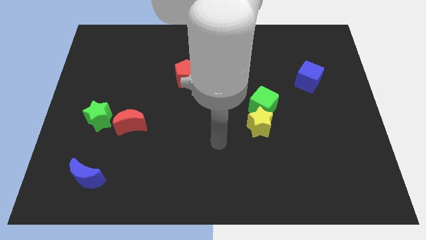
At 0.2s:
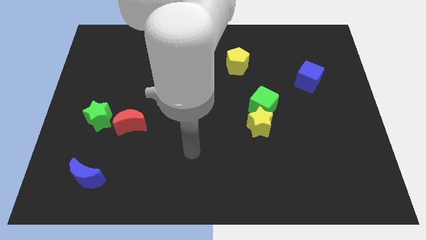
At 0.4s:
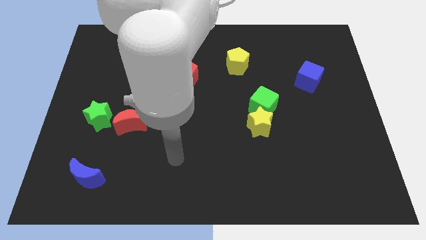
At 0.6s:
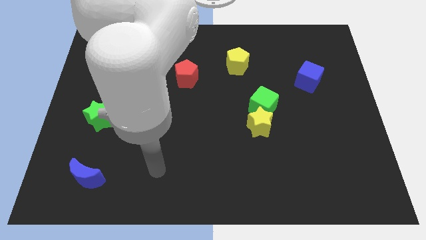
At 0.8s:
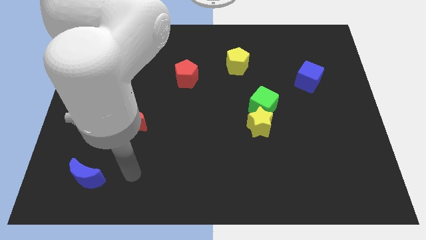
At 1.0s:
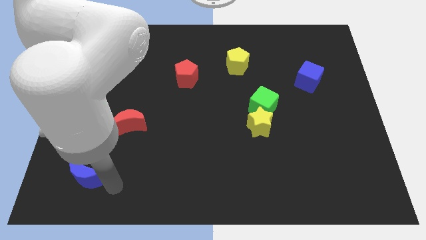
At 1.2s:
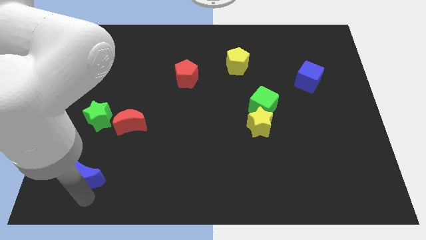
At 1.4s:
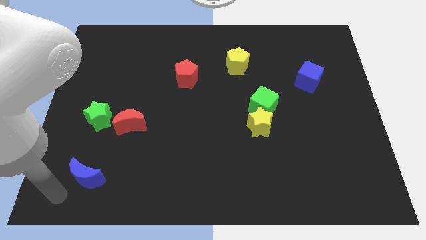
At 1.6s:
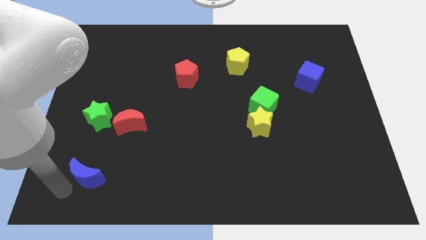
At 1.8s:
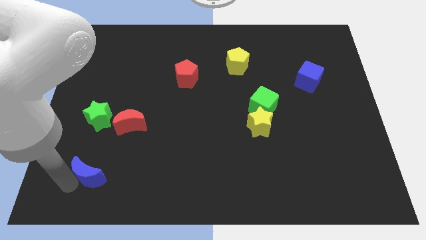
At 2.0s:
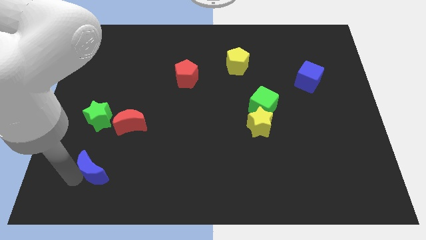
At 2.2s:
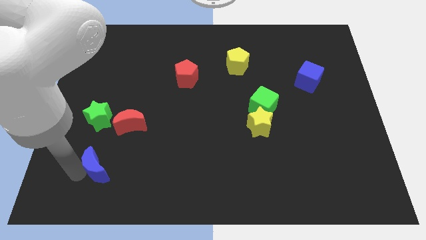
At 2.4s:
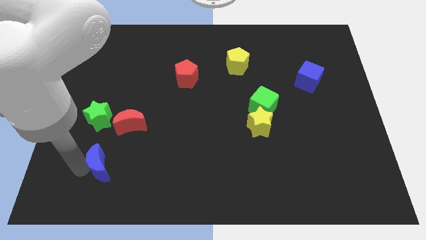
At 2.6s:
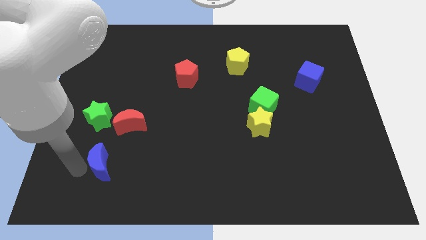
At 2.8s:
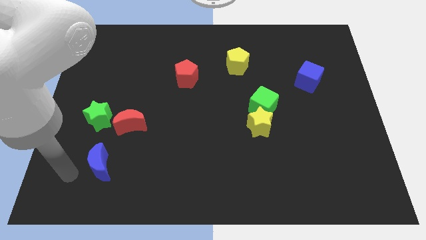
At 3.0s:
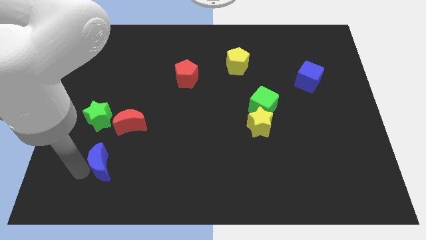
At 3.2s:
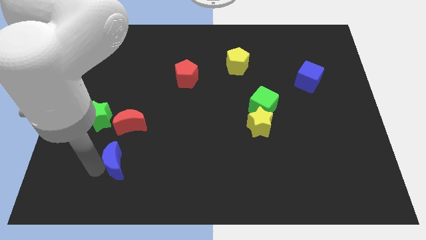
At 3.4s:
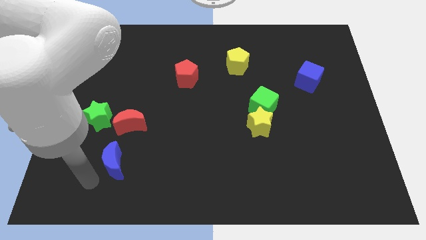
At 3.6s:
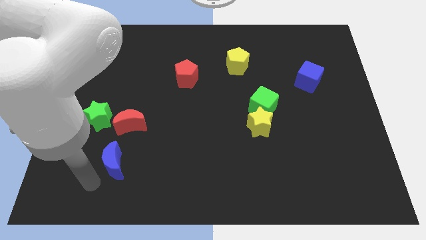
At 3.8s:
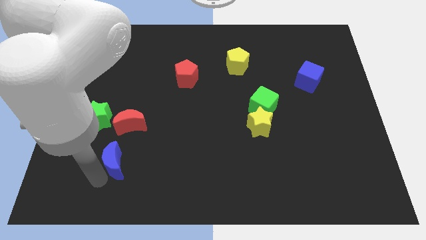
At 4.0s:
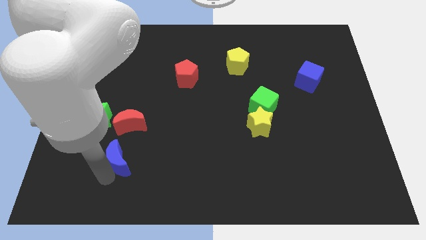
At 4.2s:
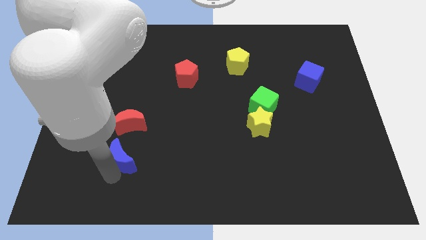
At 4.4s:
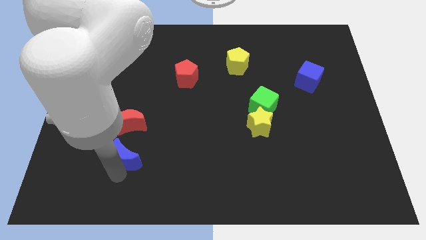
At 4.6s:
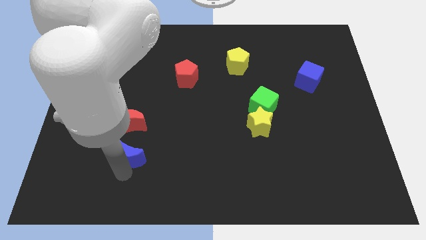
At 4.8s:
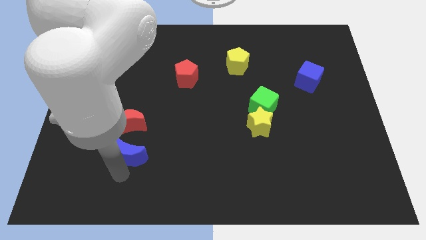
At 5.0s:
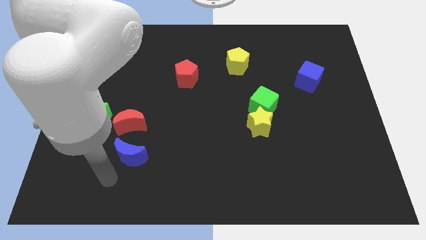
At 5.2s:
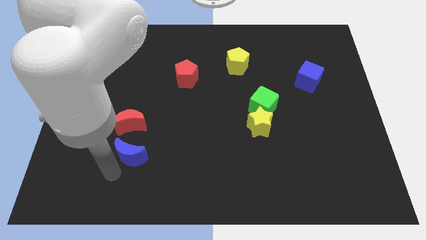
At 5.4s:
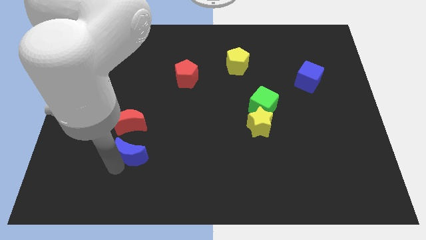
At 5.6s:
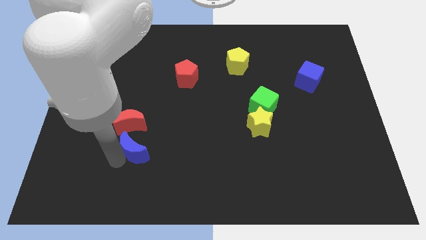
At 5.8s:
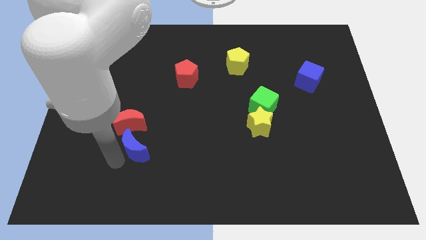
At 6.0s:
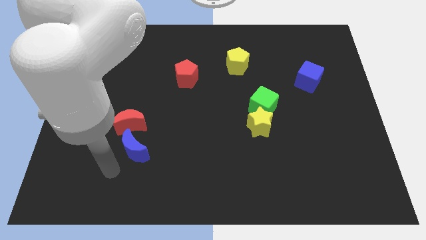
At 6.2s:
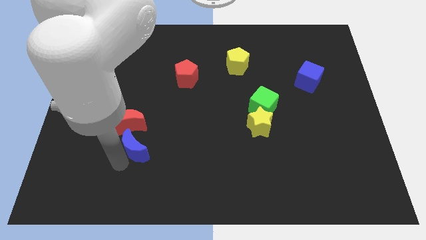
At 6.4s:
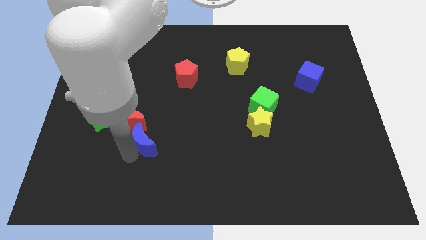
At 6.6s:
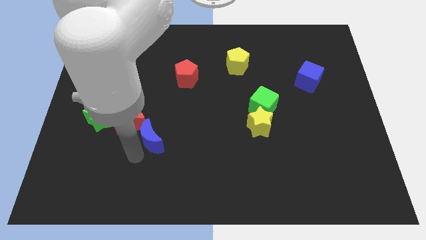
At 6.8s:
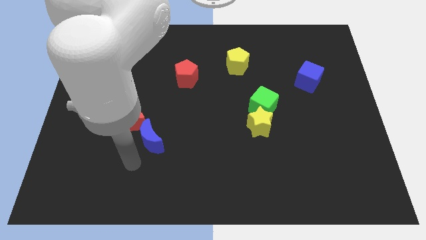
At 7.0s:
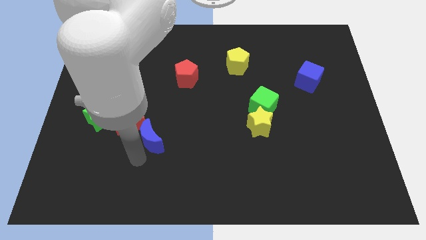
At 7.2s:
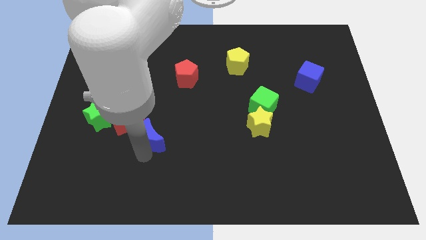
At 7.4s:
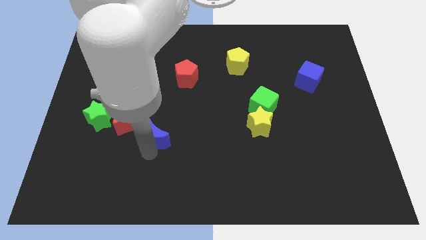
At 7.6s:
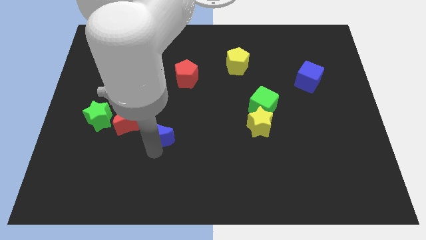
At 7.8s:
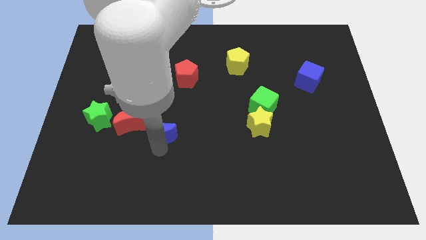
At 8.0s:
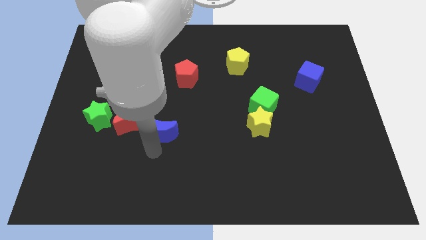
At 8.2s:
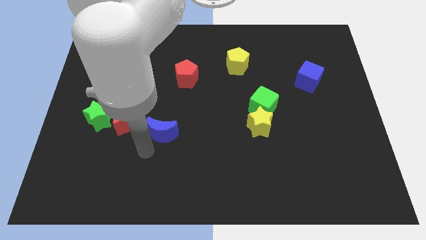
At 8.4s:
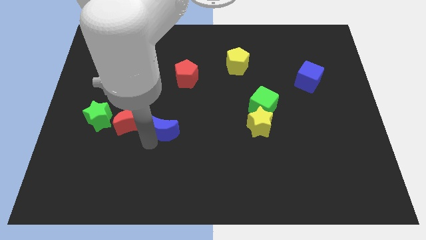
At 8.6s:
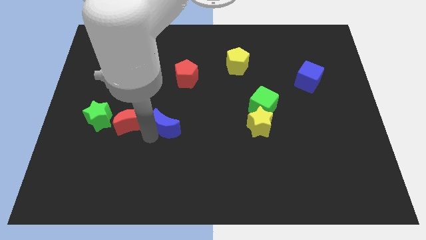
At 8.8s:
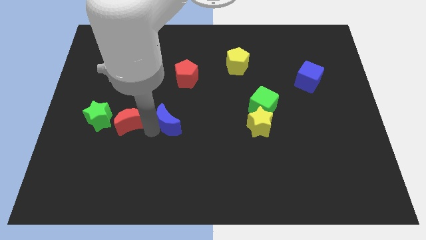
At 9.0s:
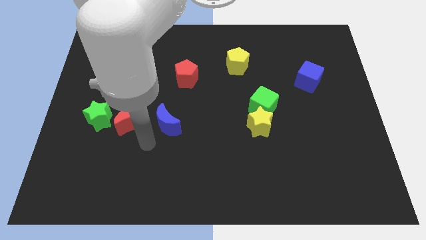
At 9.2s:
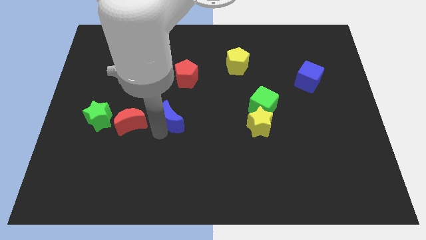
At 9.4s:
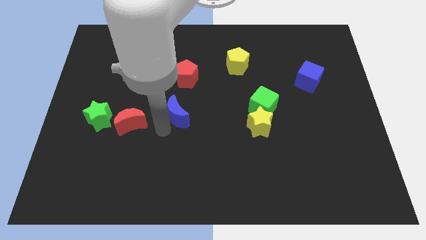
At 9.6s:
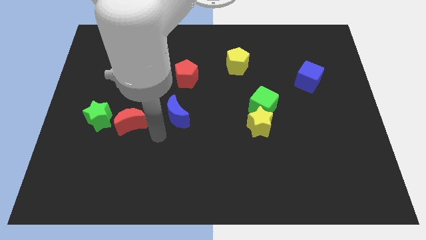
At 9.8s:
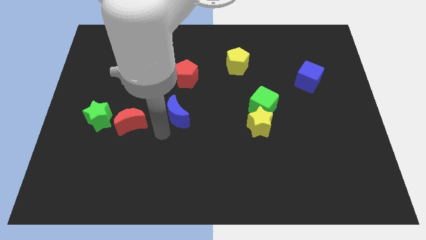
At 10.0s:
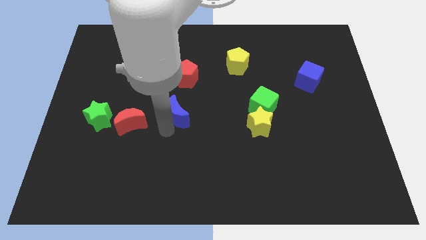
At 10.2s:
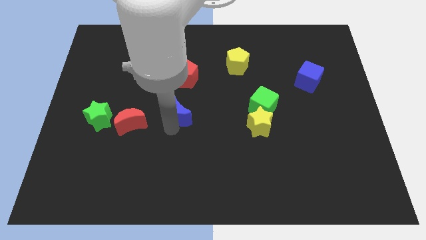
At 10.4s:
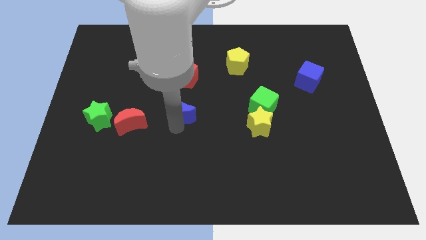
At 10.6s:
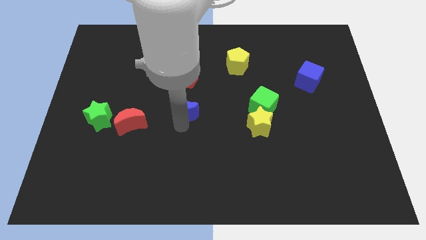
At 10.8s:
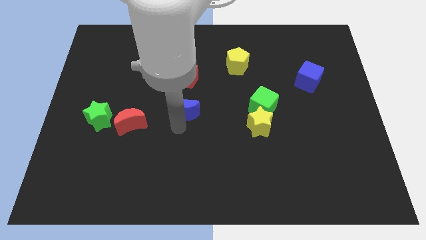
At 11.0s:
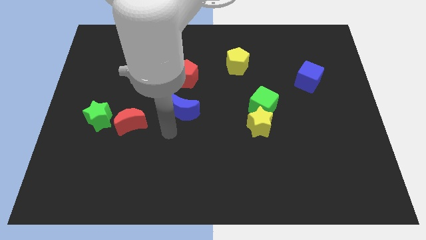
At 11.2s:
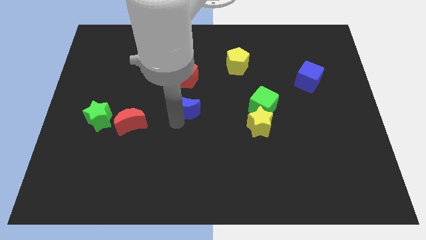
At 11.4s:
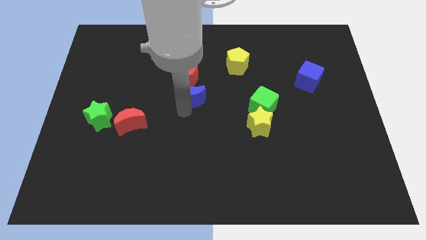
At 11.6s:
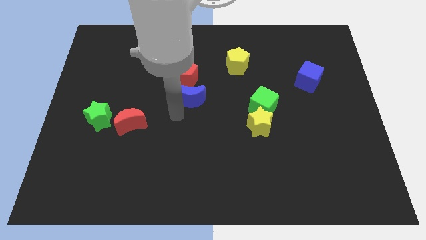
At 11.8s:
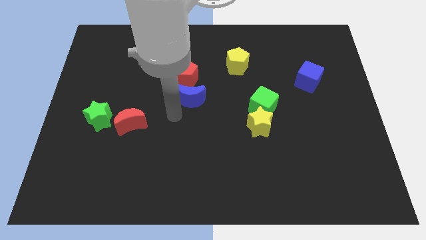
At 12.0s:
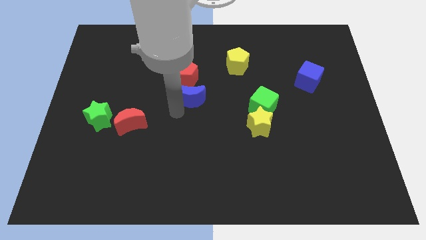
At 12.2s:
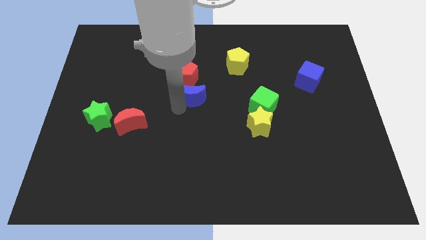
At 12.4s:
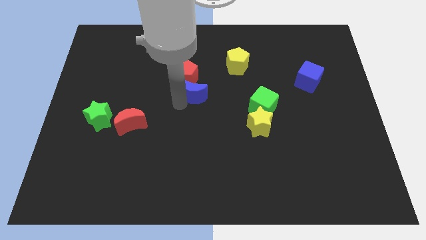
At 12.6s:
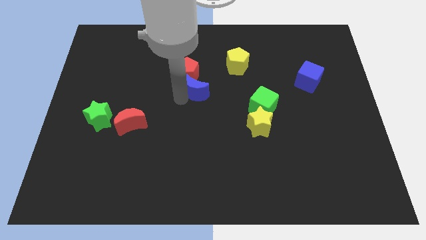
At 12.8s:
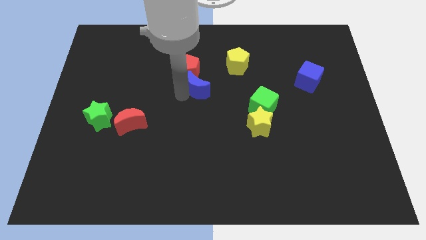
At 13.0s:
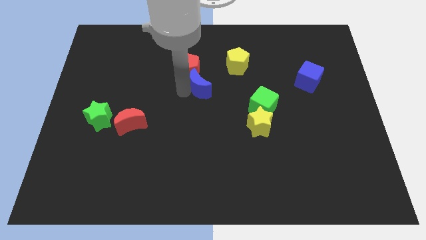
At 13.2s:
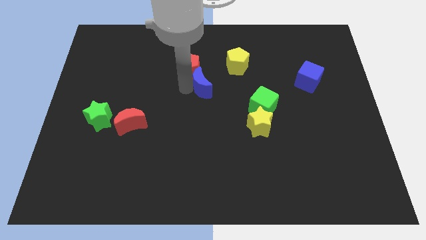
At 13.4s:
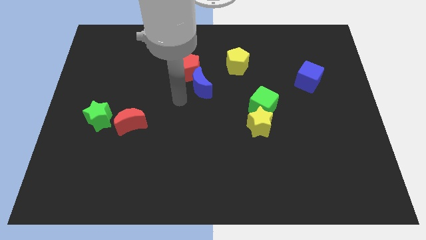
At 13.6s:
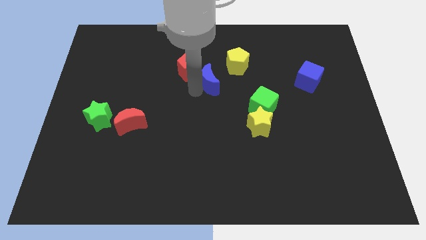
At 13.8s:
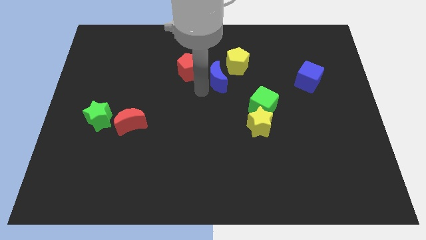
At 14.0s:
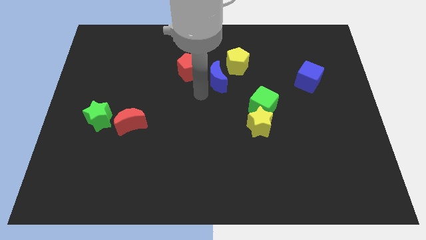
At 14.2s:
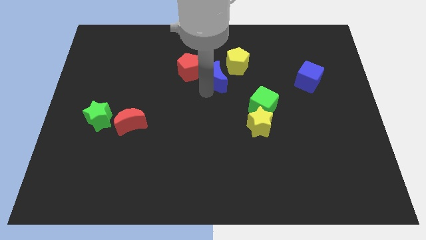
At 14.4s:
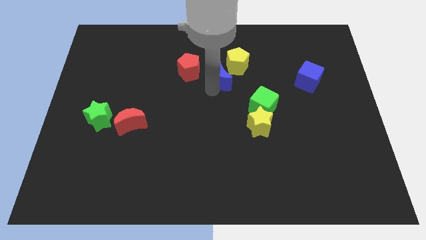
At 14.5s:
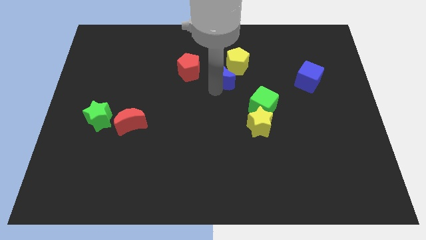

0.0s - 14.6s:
slide the blue moon towards the yellow pentagon

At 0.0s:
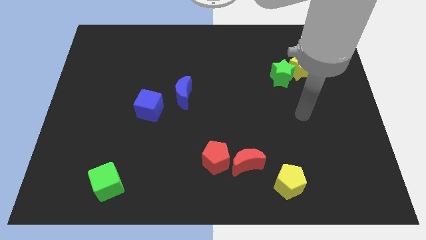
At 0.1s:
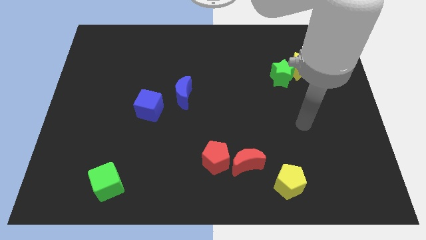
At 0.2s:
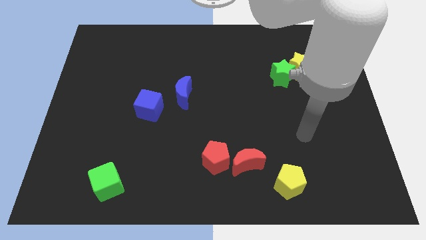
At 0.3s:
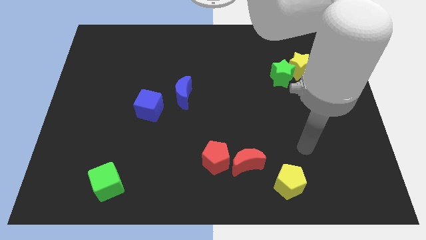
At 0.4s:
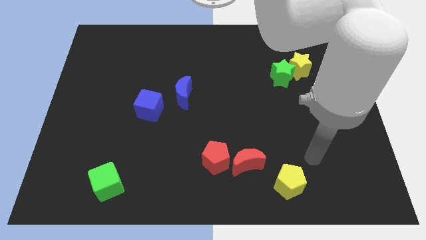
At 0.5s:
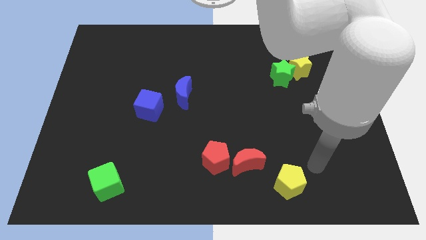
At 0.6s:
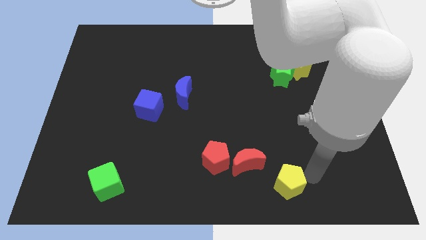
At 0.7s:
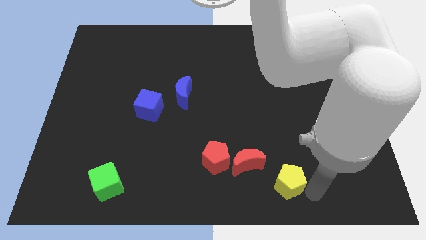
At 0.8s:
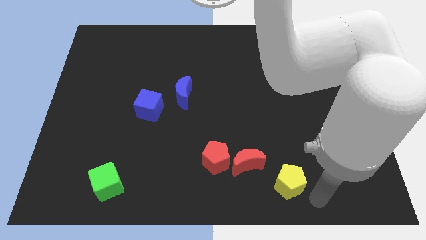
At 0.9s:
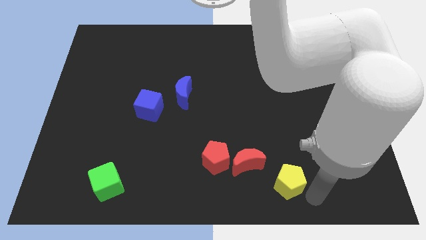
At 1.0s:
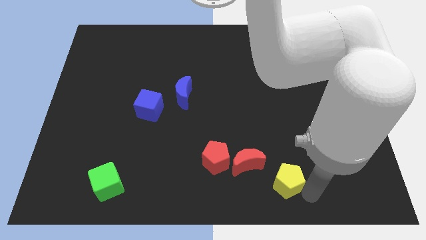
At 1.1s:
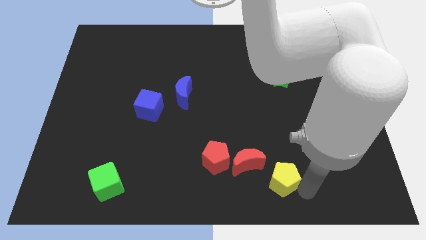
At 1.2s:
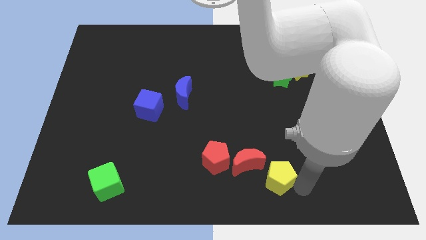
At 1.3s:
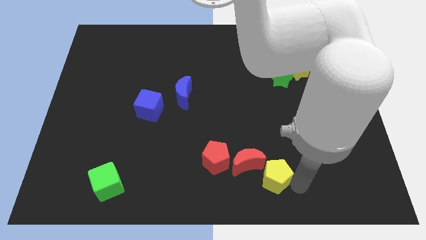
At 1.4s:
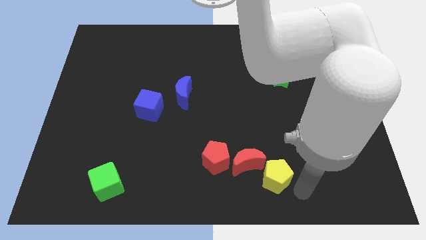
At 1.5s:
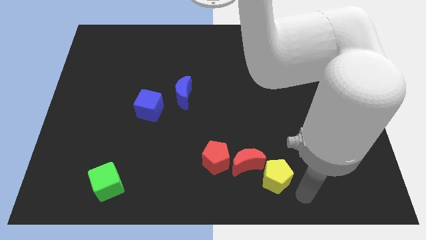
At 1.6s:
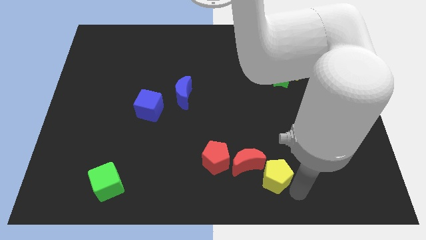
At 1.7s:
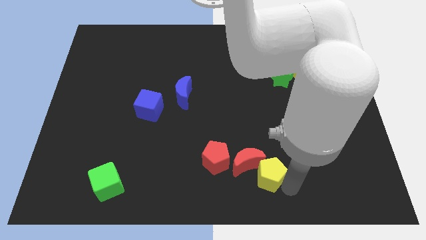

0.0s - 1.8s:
push the yellow pentagon close to the red moon
